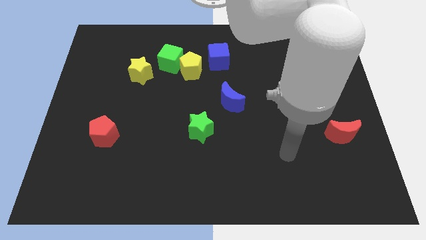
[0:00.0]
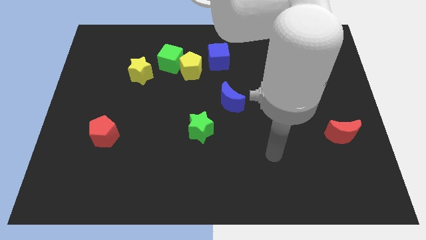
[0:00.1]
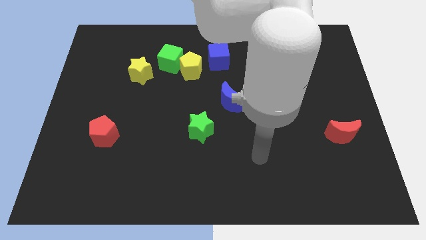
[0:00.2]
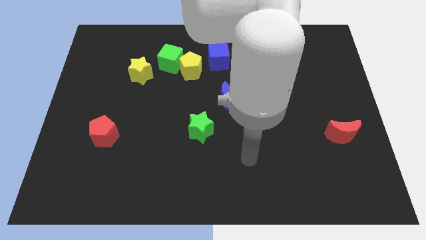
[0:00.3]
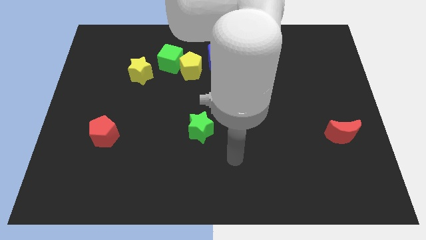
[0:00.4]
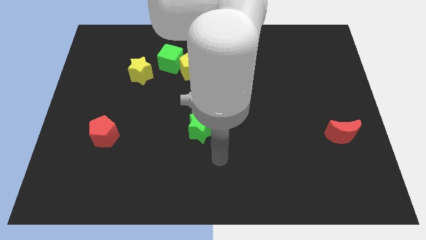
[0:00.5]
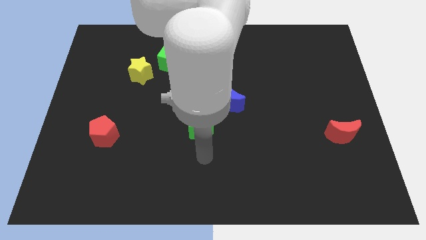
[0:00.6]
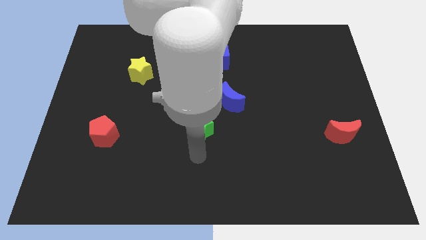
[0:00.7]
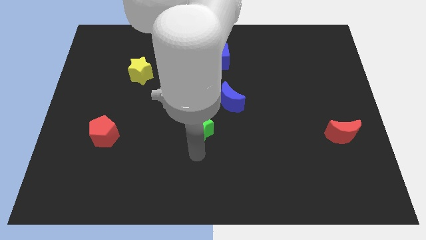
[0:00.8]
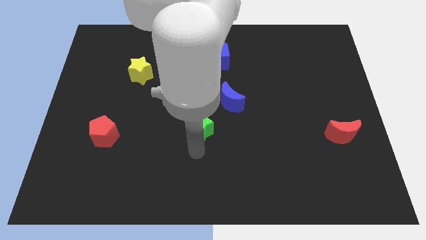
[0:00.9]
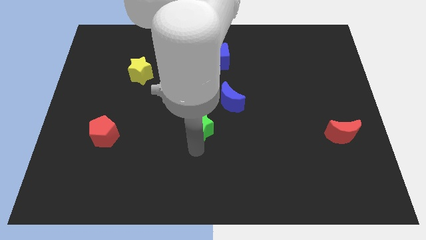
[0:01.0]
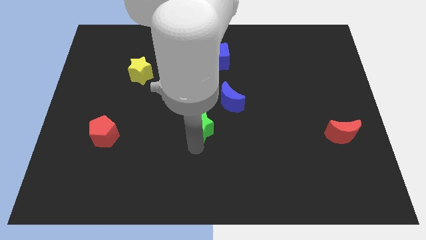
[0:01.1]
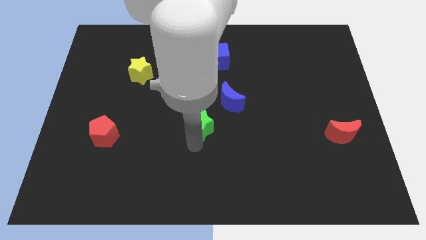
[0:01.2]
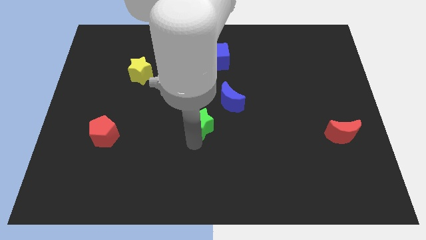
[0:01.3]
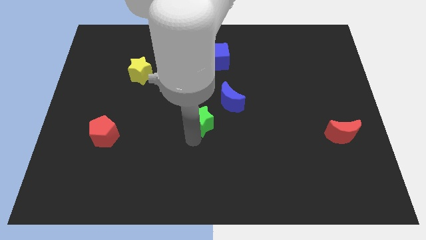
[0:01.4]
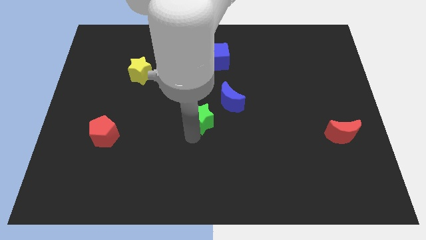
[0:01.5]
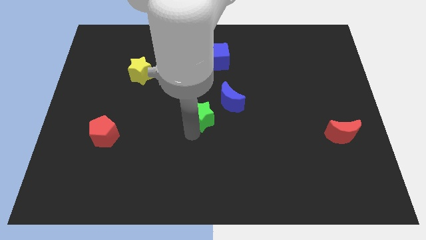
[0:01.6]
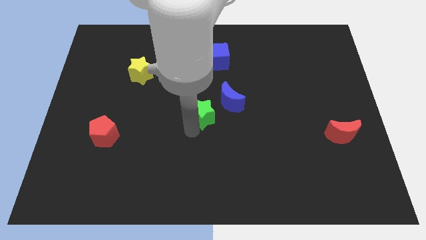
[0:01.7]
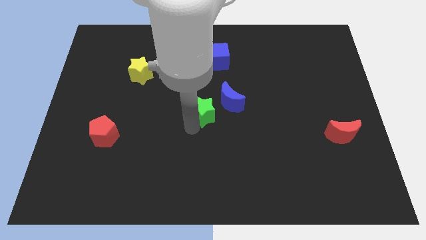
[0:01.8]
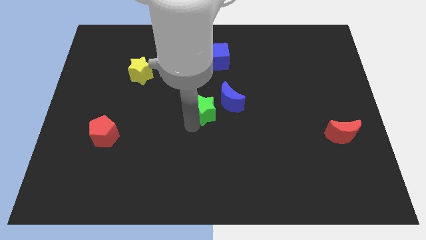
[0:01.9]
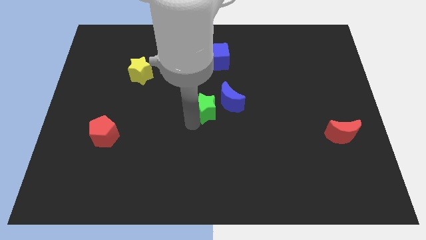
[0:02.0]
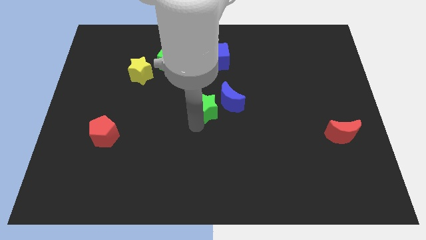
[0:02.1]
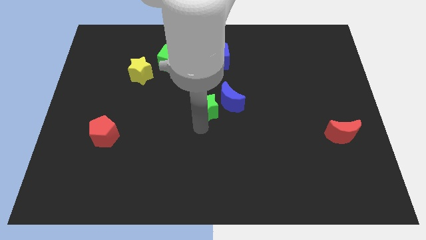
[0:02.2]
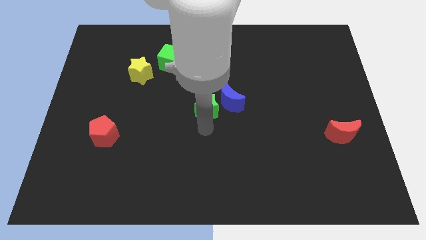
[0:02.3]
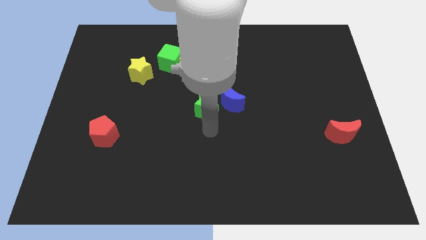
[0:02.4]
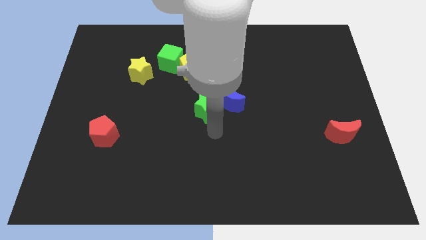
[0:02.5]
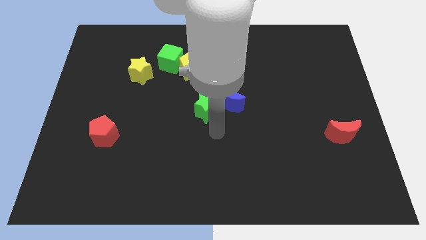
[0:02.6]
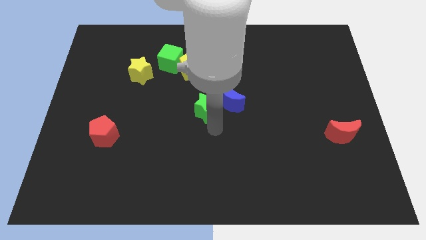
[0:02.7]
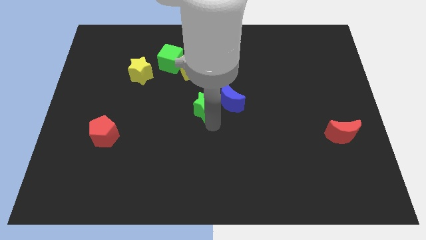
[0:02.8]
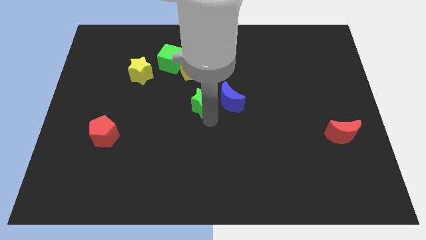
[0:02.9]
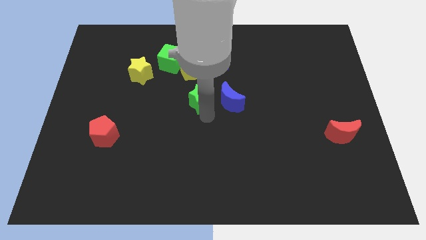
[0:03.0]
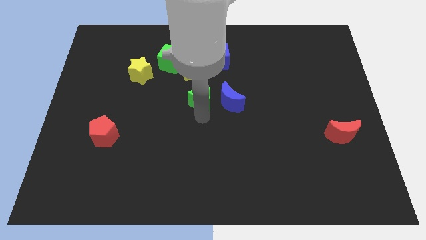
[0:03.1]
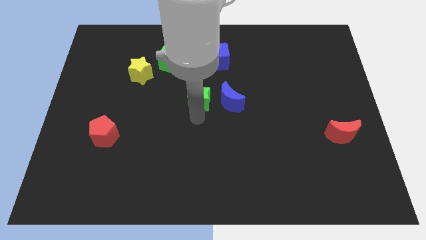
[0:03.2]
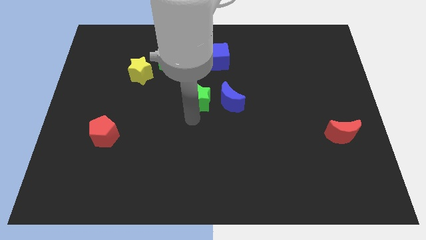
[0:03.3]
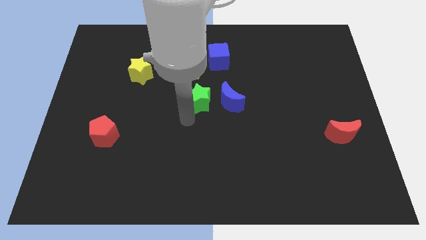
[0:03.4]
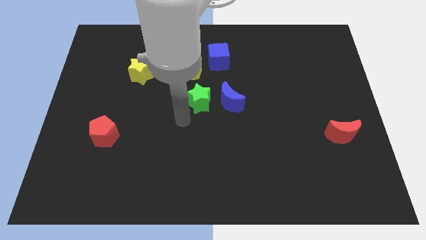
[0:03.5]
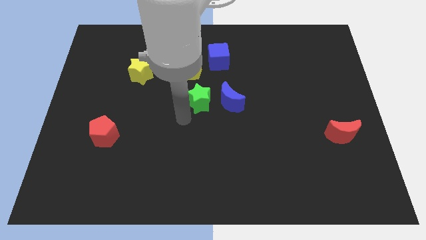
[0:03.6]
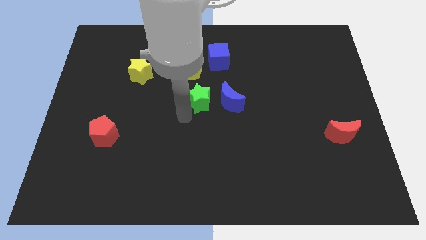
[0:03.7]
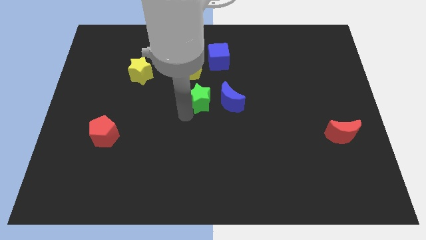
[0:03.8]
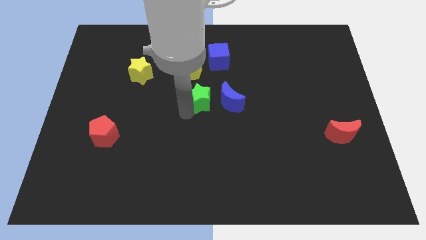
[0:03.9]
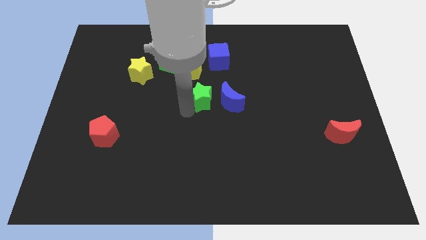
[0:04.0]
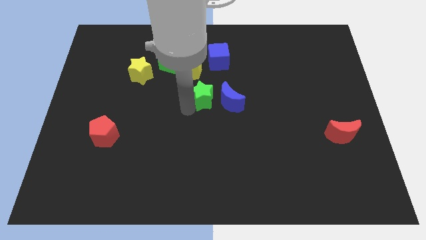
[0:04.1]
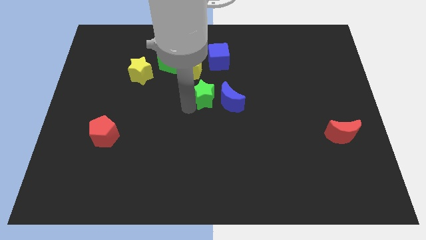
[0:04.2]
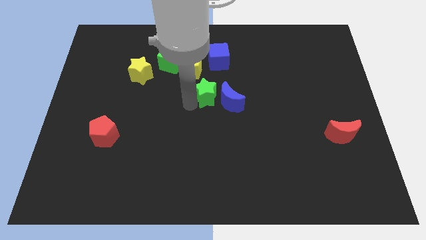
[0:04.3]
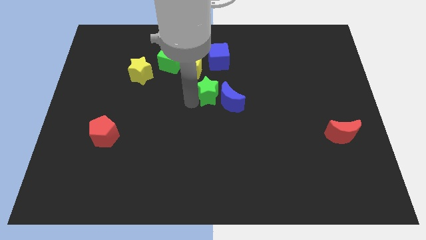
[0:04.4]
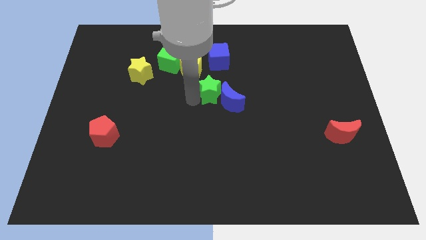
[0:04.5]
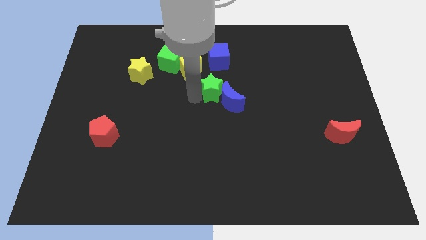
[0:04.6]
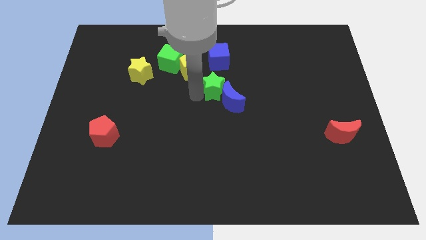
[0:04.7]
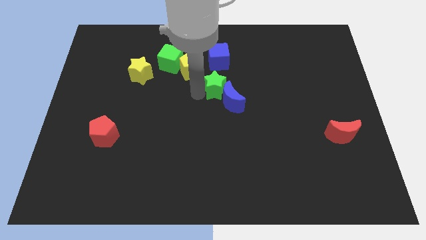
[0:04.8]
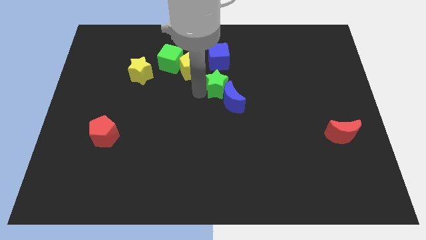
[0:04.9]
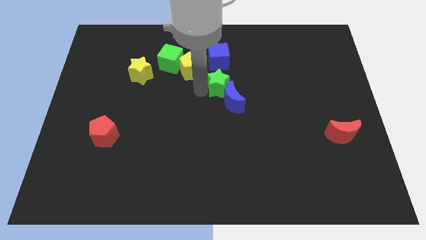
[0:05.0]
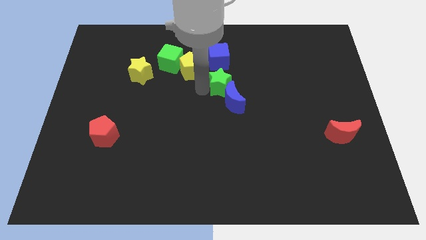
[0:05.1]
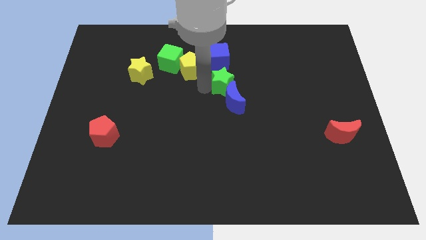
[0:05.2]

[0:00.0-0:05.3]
put the green star to the right of the yellow pentagon

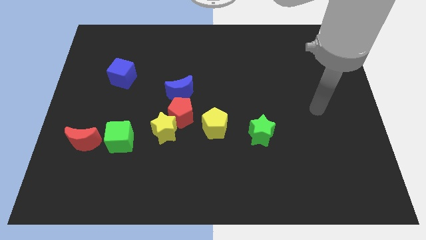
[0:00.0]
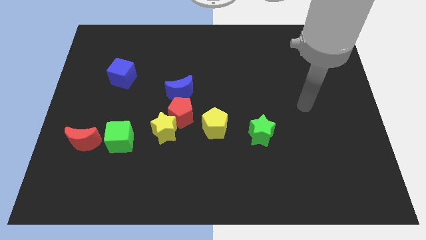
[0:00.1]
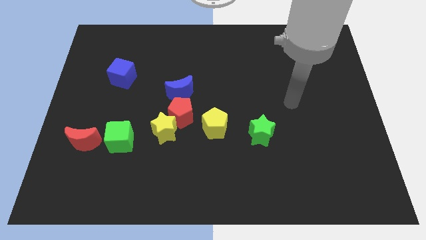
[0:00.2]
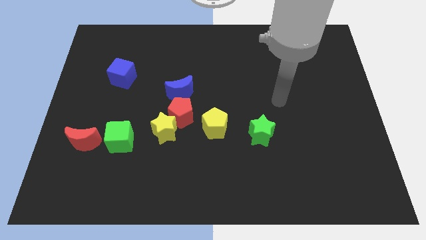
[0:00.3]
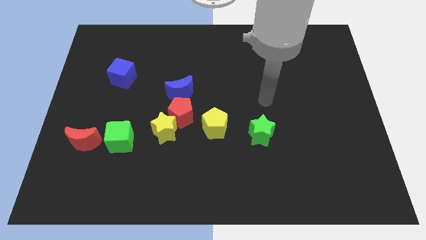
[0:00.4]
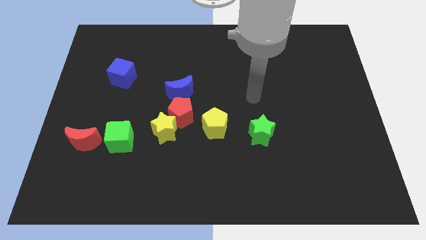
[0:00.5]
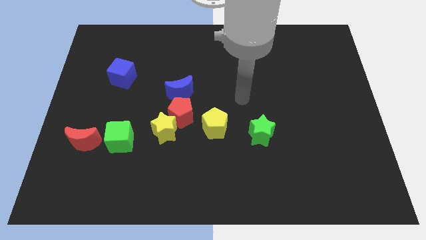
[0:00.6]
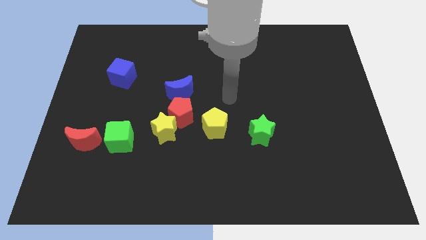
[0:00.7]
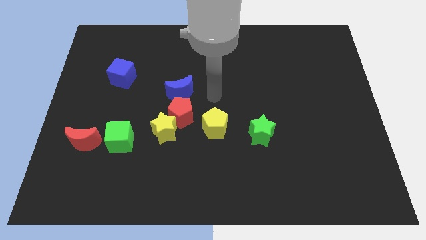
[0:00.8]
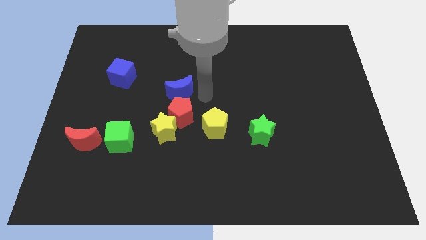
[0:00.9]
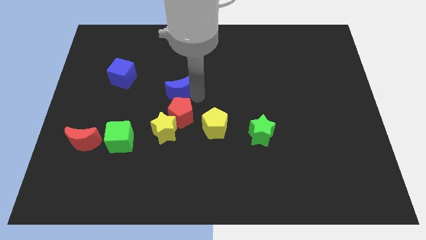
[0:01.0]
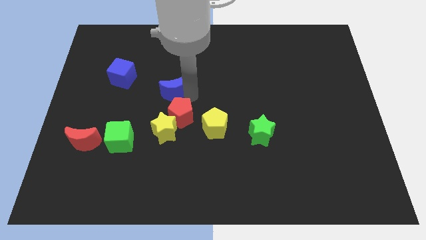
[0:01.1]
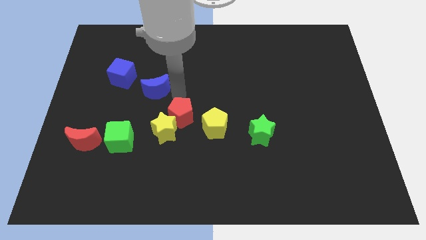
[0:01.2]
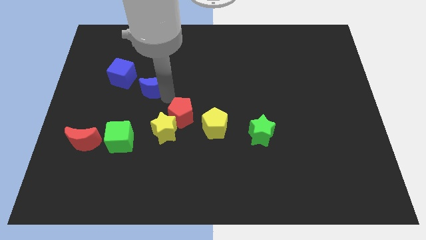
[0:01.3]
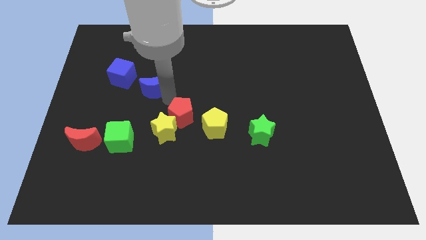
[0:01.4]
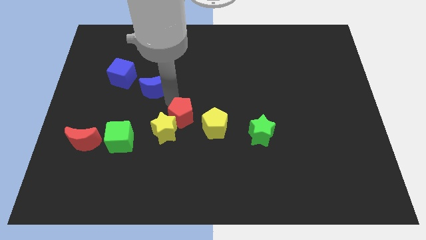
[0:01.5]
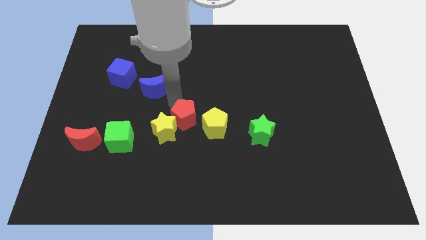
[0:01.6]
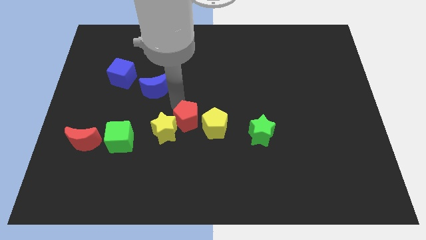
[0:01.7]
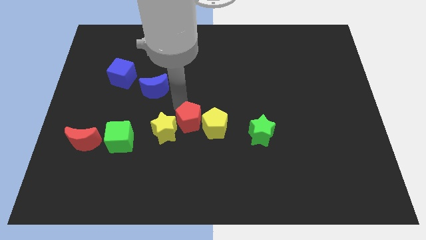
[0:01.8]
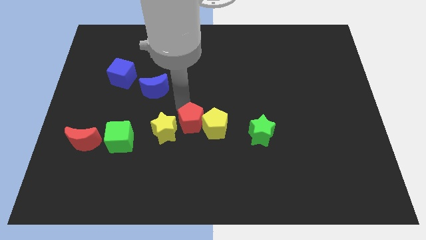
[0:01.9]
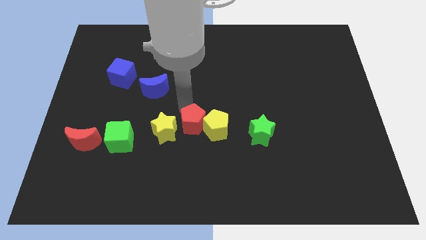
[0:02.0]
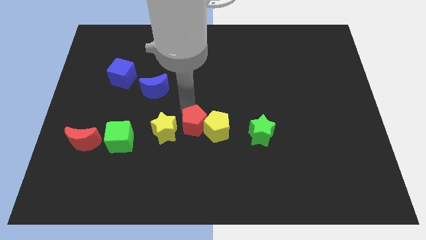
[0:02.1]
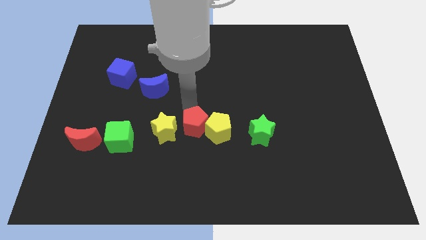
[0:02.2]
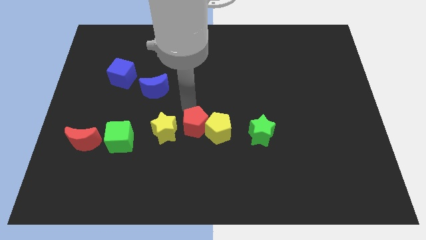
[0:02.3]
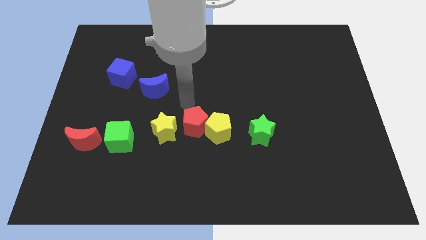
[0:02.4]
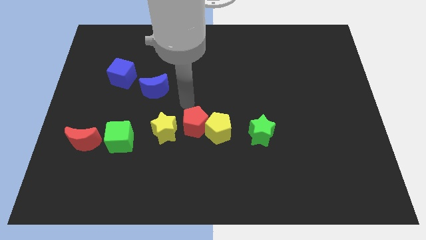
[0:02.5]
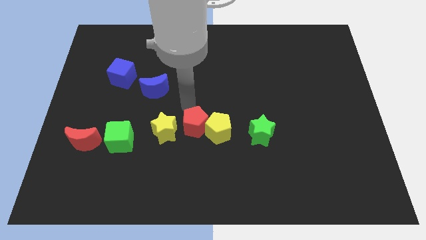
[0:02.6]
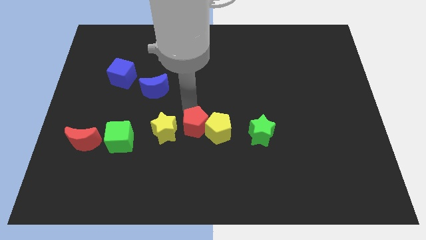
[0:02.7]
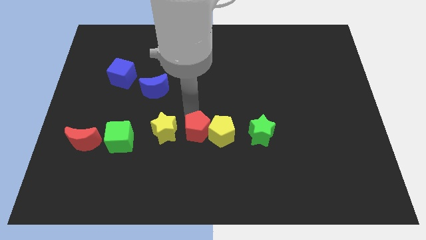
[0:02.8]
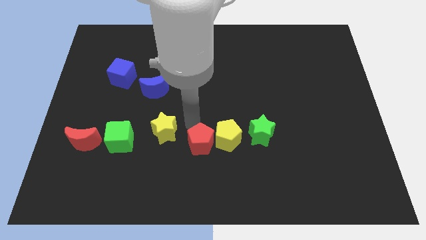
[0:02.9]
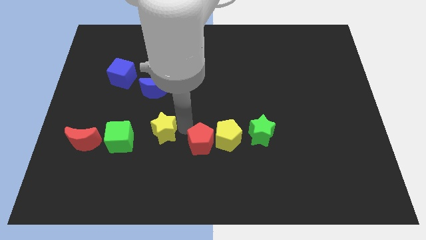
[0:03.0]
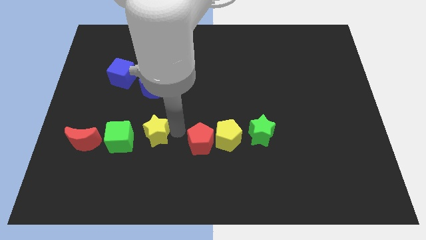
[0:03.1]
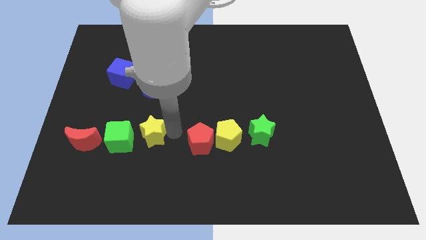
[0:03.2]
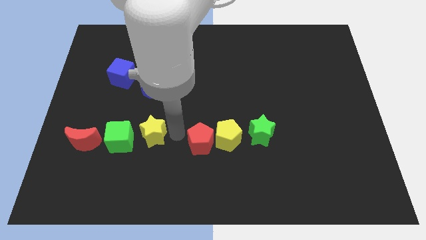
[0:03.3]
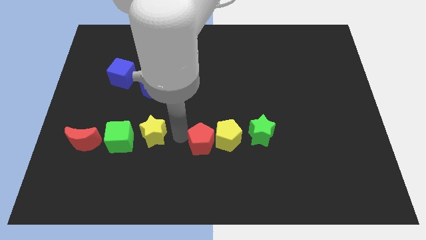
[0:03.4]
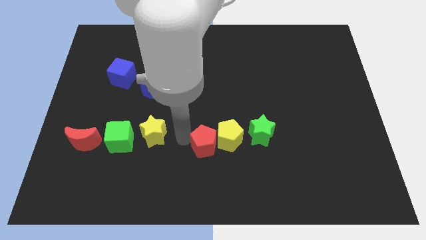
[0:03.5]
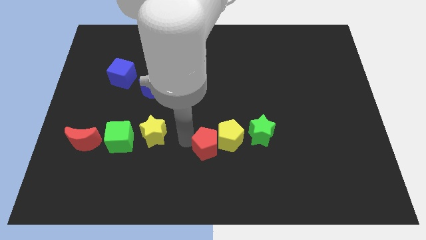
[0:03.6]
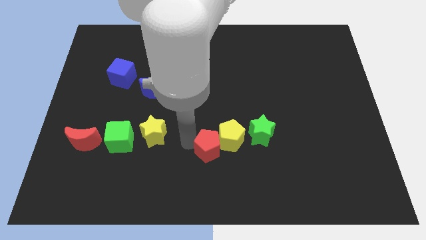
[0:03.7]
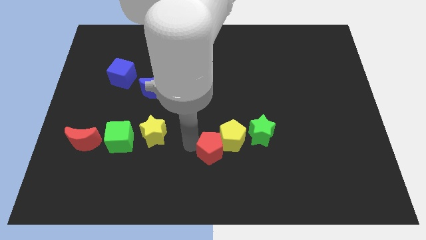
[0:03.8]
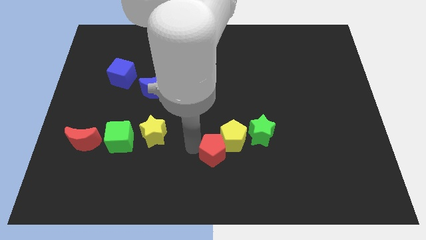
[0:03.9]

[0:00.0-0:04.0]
move the red pentagon to the bottom left side of the green star
